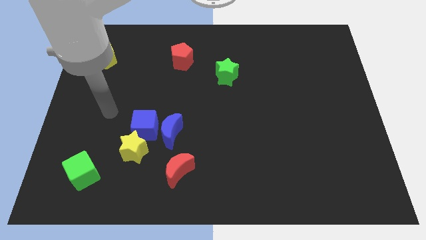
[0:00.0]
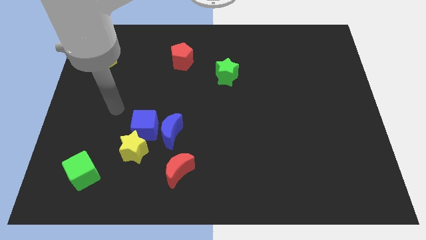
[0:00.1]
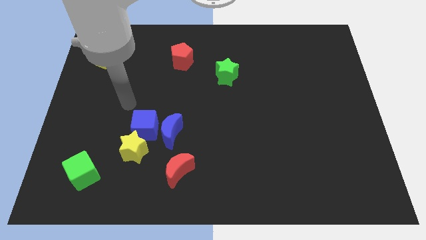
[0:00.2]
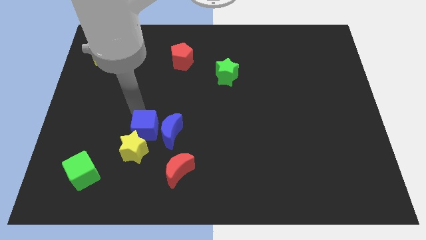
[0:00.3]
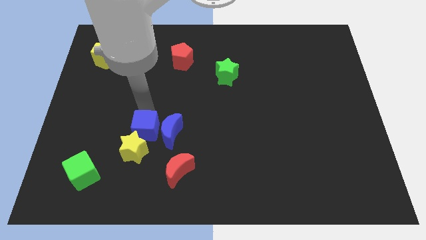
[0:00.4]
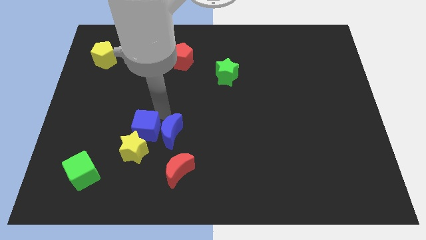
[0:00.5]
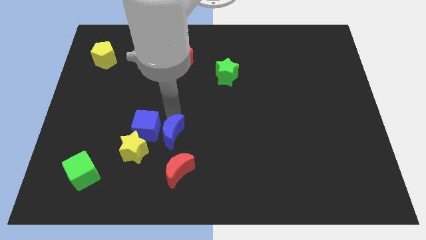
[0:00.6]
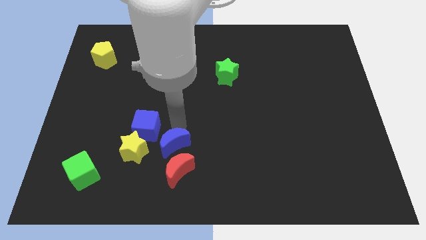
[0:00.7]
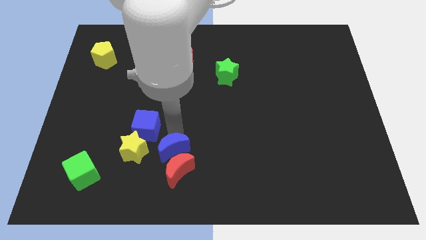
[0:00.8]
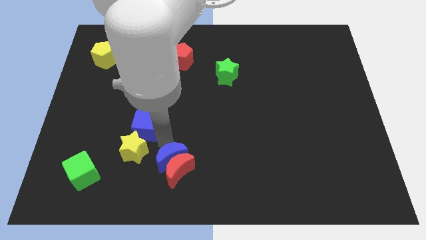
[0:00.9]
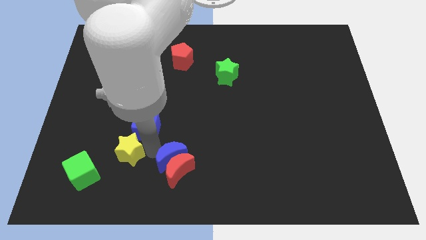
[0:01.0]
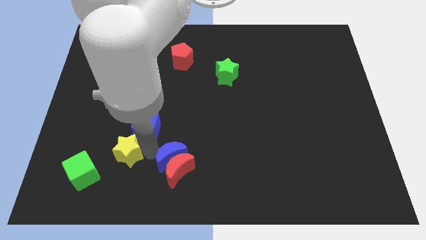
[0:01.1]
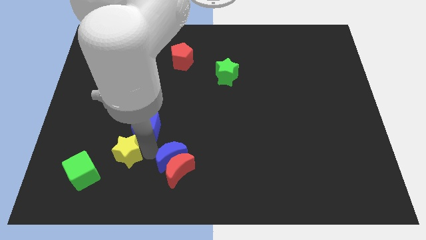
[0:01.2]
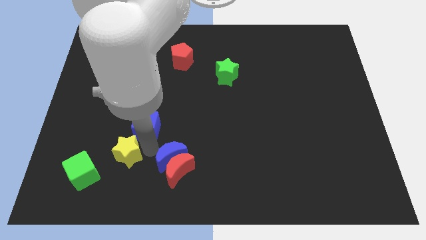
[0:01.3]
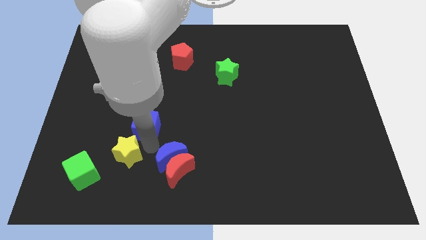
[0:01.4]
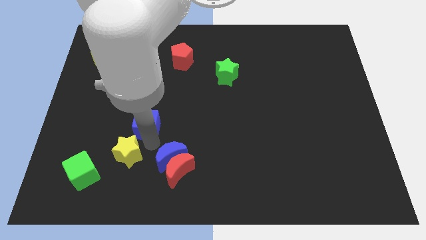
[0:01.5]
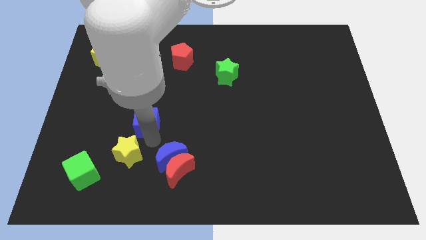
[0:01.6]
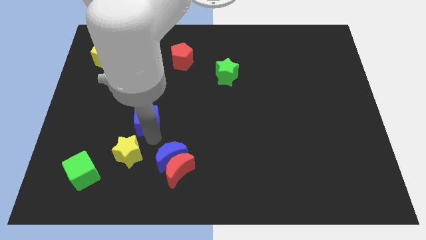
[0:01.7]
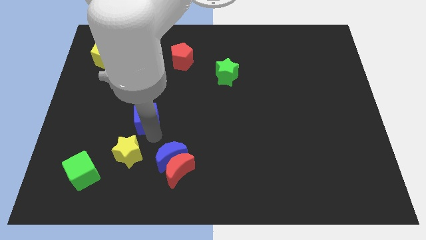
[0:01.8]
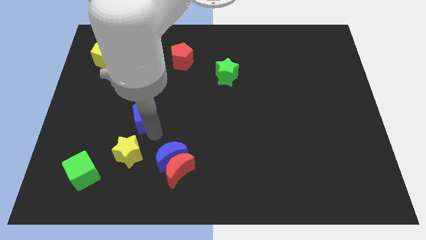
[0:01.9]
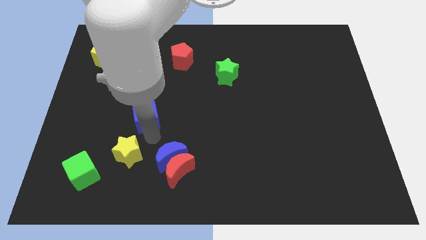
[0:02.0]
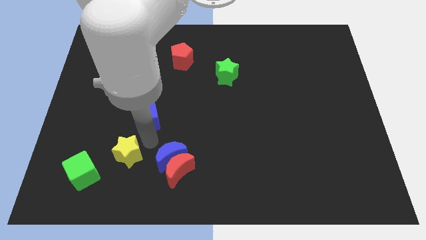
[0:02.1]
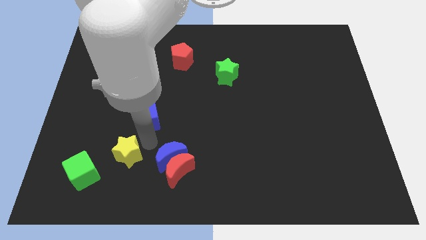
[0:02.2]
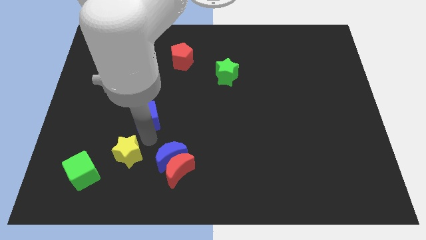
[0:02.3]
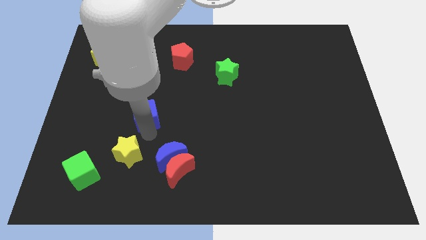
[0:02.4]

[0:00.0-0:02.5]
separate the blue cube from the blue moon and yellow star

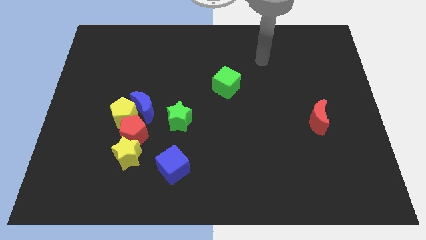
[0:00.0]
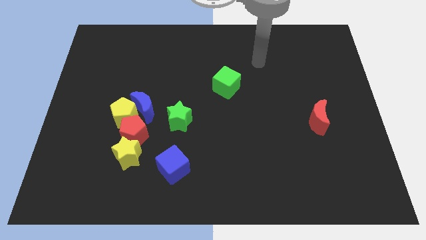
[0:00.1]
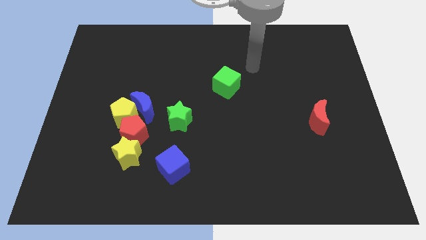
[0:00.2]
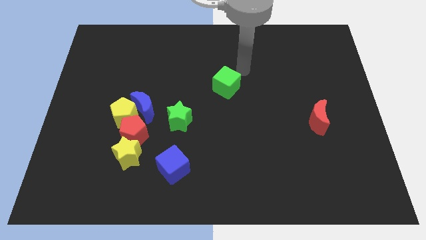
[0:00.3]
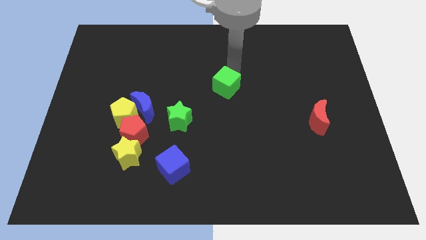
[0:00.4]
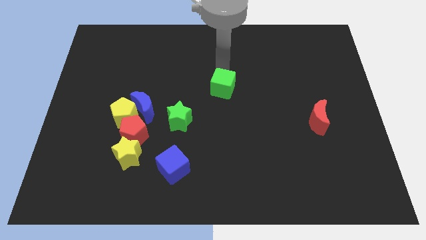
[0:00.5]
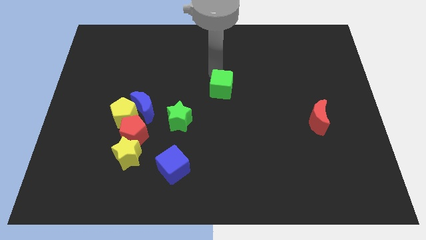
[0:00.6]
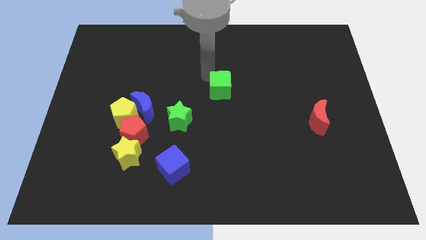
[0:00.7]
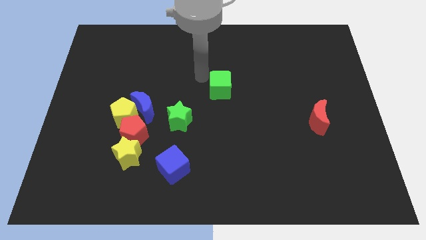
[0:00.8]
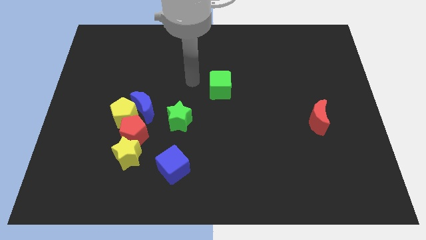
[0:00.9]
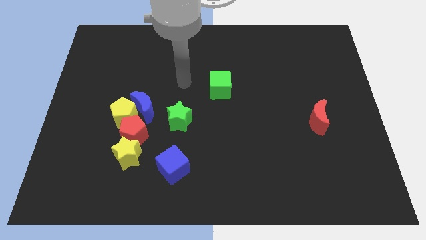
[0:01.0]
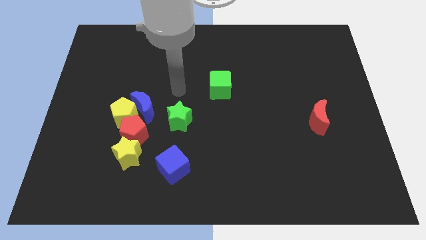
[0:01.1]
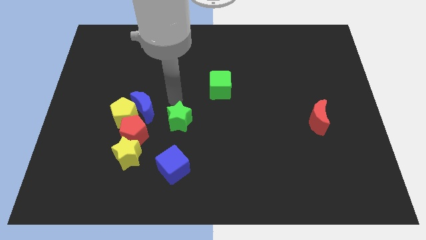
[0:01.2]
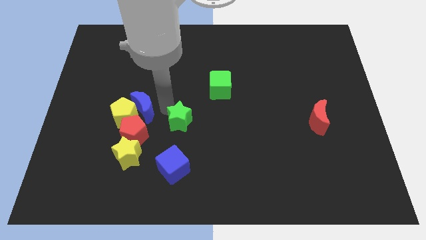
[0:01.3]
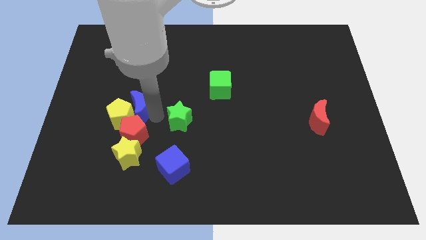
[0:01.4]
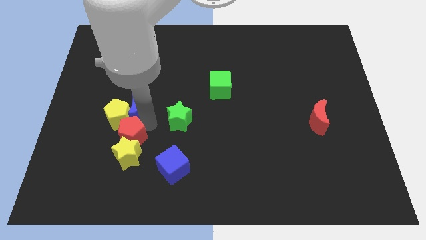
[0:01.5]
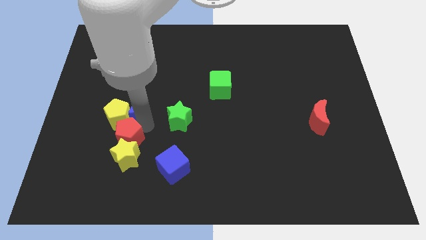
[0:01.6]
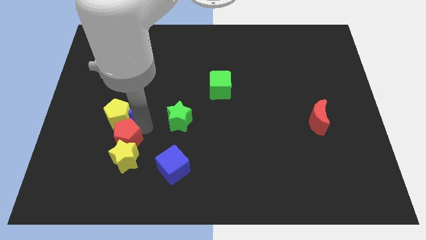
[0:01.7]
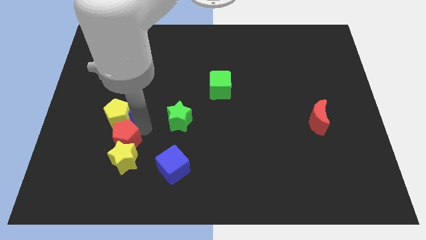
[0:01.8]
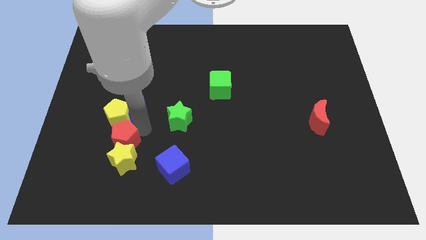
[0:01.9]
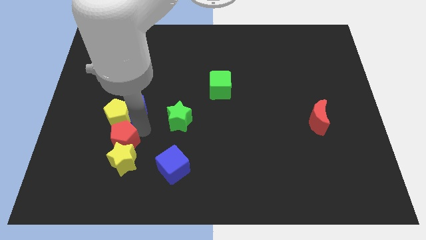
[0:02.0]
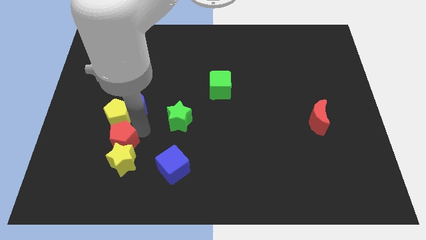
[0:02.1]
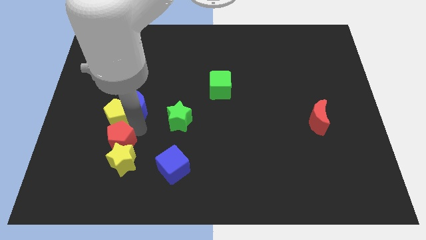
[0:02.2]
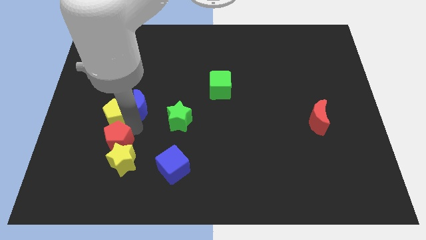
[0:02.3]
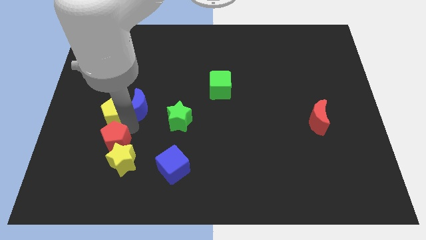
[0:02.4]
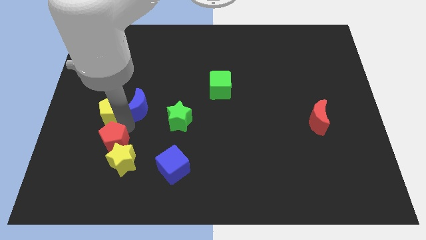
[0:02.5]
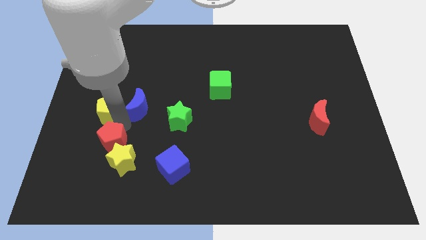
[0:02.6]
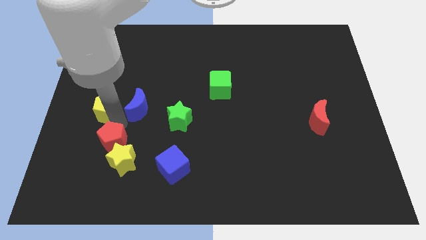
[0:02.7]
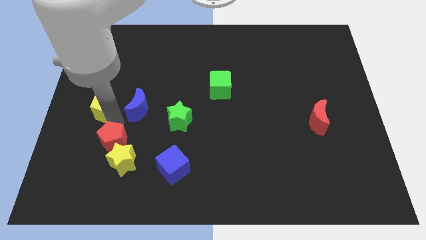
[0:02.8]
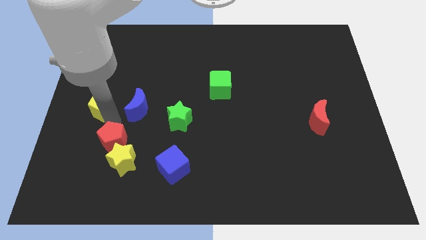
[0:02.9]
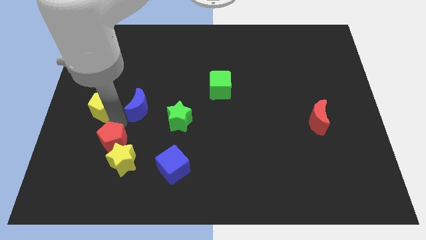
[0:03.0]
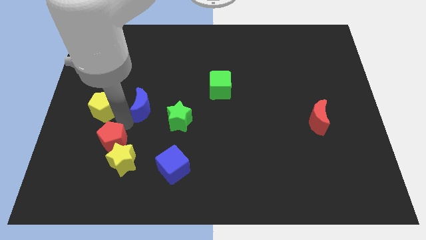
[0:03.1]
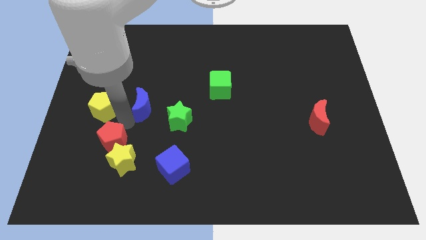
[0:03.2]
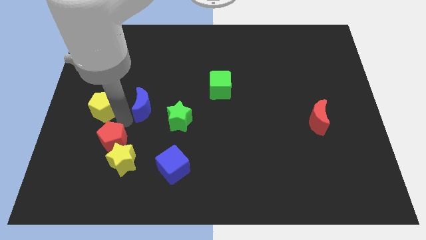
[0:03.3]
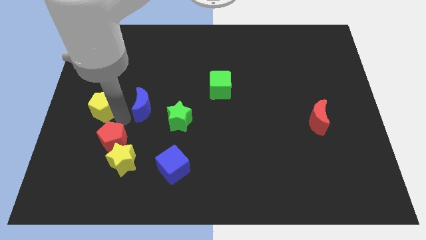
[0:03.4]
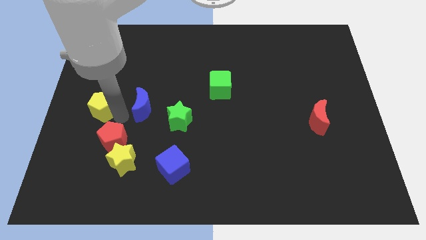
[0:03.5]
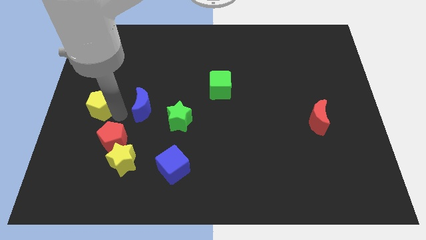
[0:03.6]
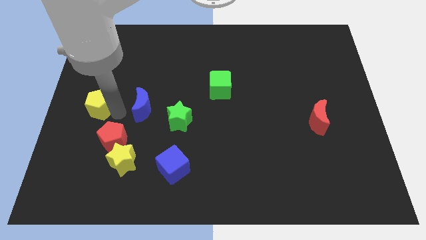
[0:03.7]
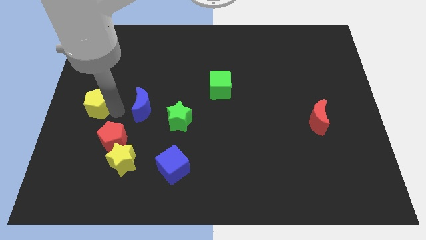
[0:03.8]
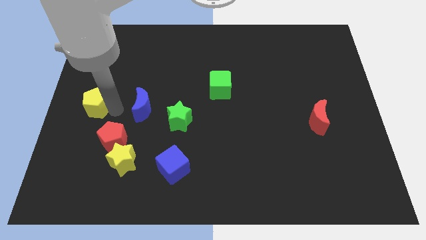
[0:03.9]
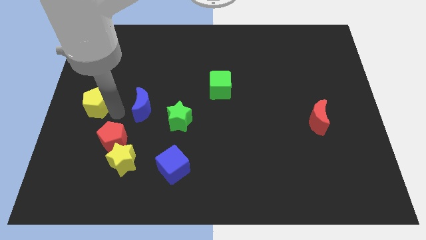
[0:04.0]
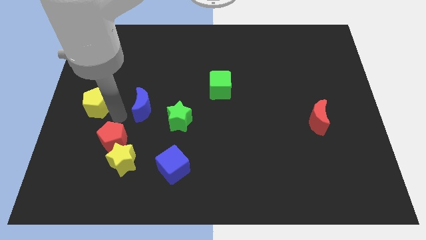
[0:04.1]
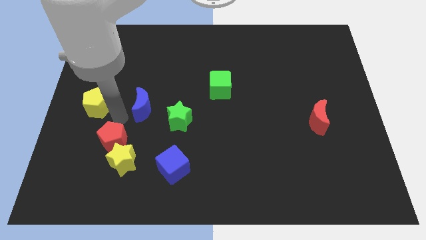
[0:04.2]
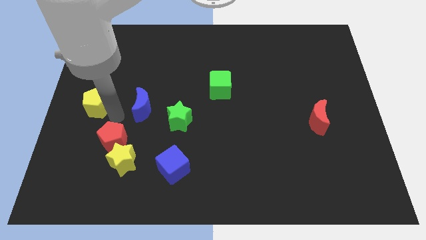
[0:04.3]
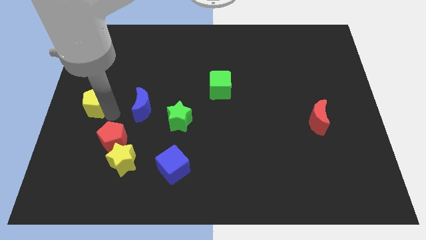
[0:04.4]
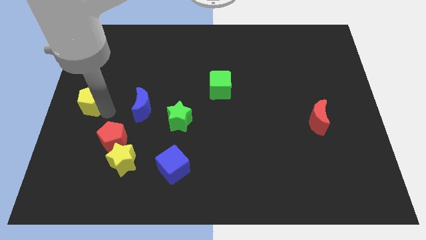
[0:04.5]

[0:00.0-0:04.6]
move the yellow pentagon away from the blue moon and red pentagon

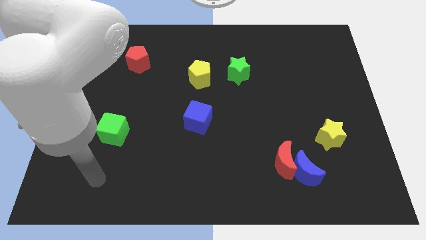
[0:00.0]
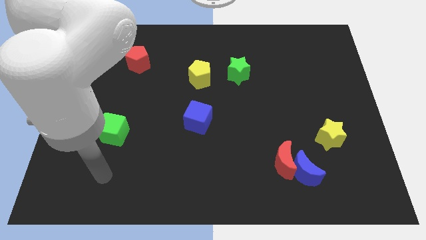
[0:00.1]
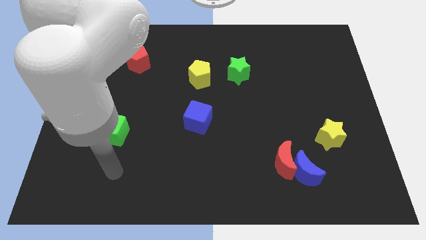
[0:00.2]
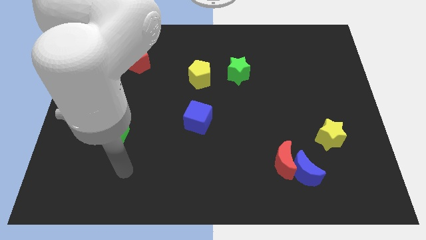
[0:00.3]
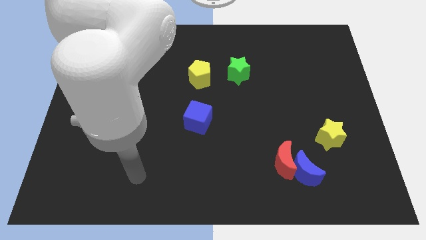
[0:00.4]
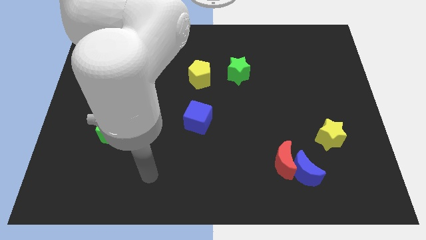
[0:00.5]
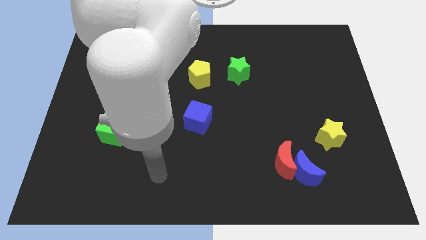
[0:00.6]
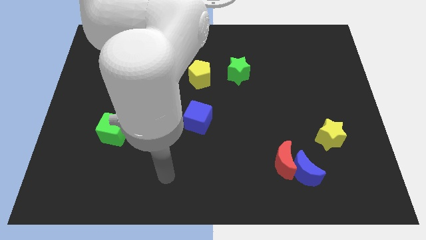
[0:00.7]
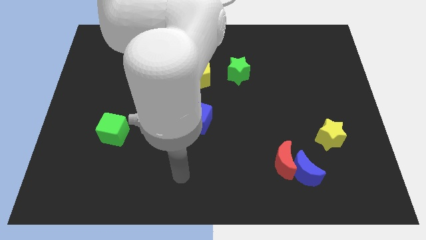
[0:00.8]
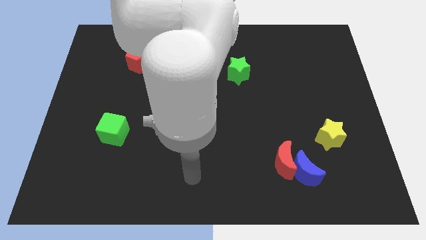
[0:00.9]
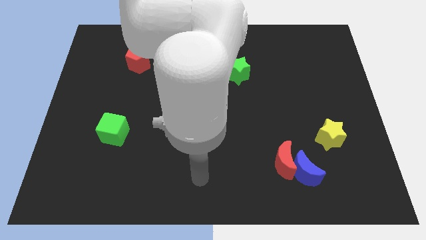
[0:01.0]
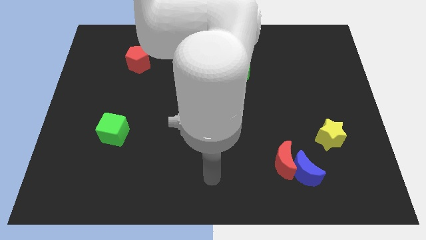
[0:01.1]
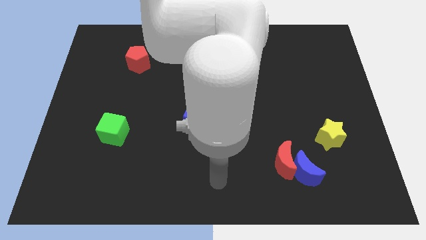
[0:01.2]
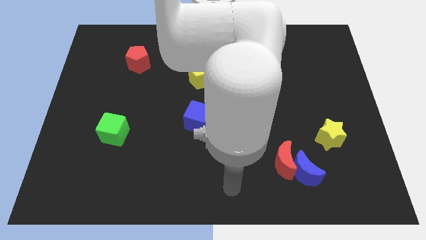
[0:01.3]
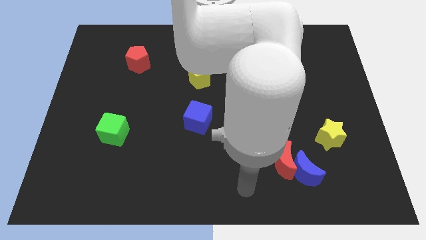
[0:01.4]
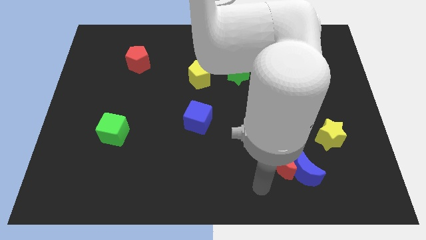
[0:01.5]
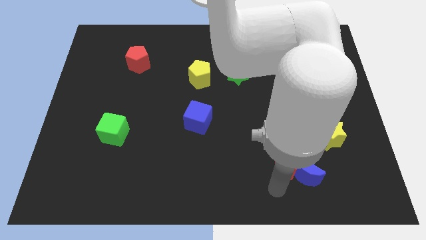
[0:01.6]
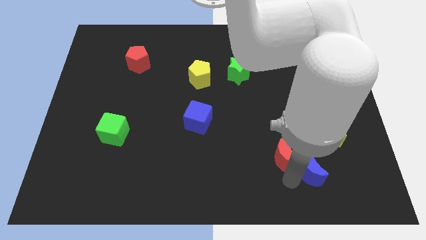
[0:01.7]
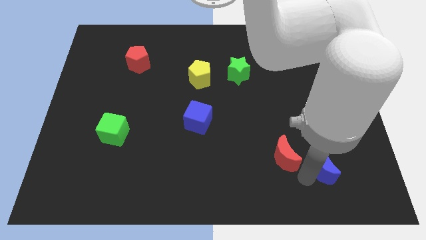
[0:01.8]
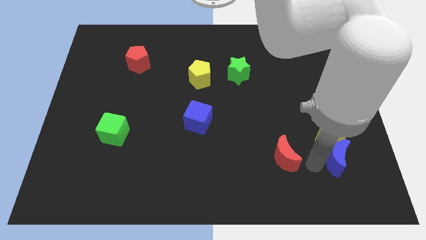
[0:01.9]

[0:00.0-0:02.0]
move the red moon away from the blue moon

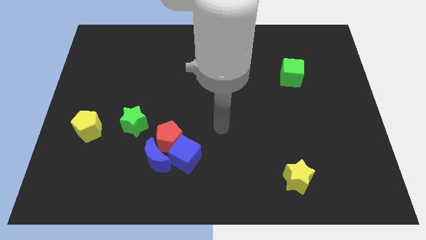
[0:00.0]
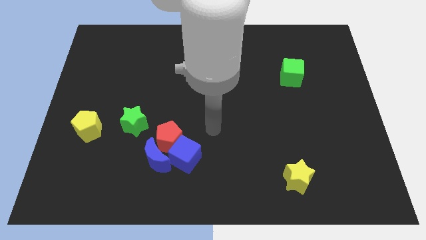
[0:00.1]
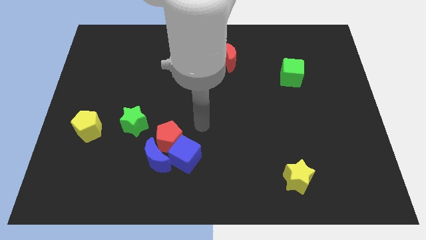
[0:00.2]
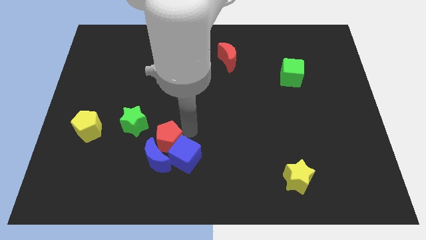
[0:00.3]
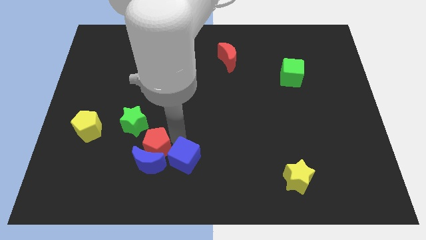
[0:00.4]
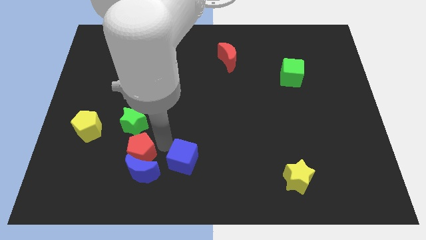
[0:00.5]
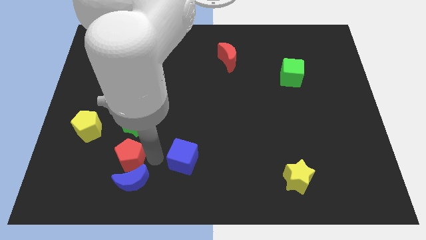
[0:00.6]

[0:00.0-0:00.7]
move the blue cube away from the red pentagon and blue moon
